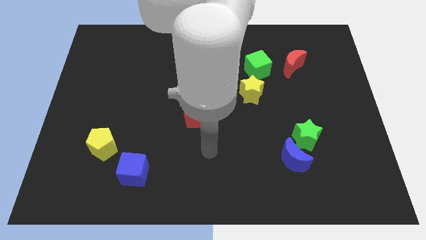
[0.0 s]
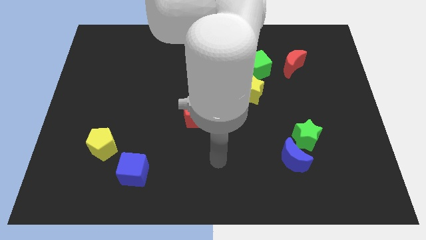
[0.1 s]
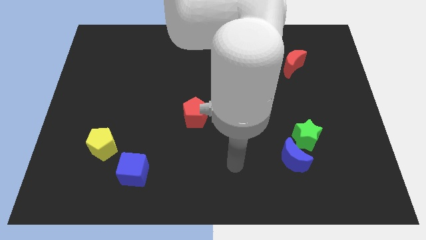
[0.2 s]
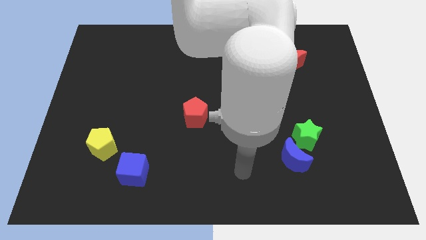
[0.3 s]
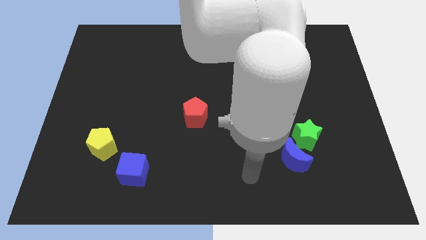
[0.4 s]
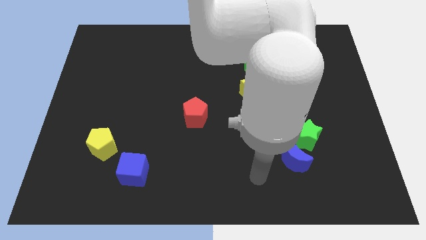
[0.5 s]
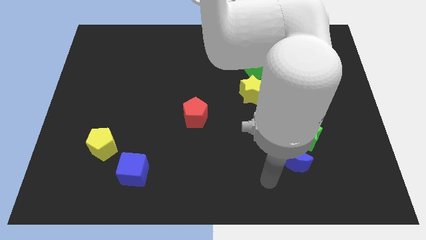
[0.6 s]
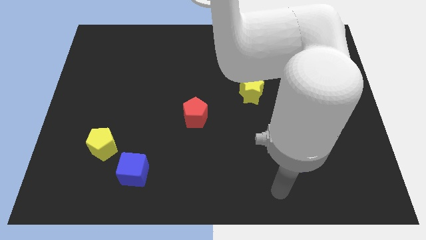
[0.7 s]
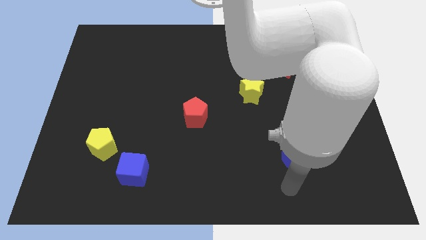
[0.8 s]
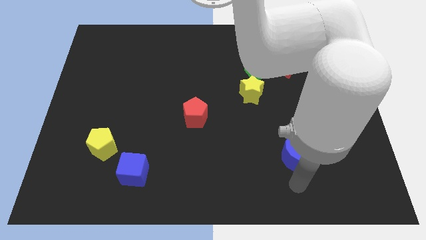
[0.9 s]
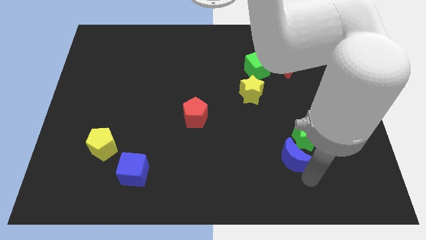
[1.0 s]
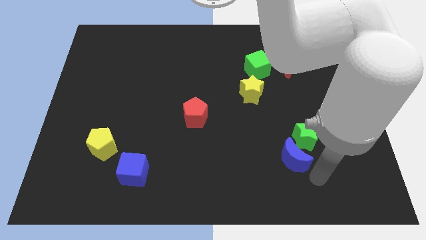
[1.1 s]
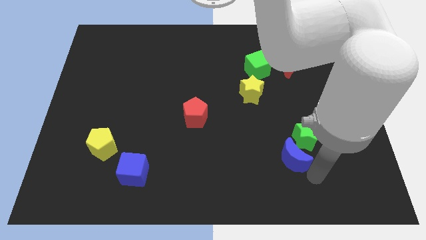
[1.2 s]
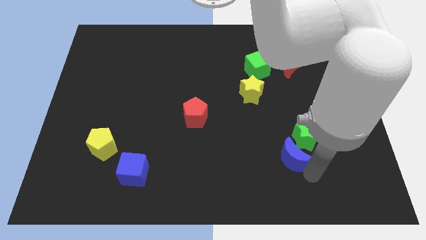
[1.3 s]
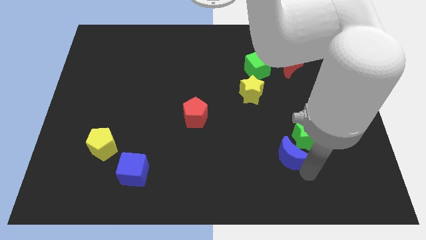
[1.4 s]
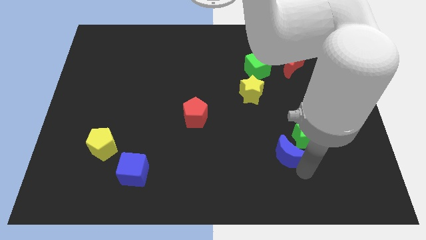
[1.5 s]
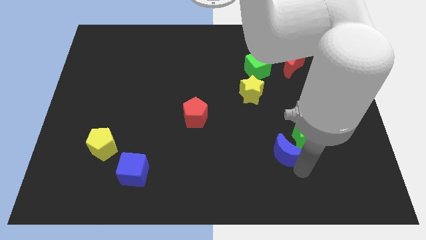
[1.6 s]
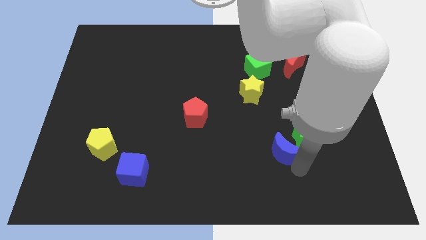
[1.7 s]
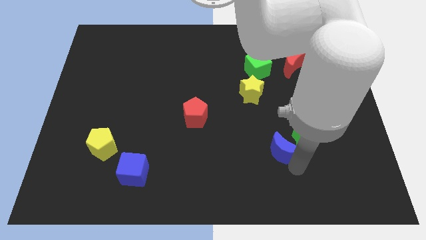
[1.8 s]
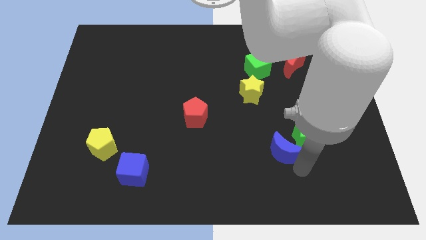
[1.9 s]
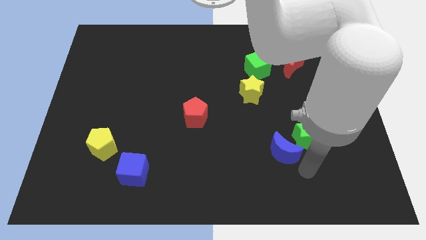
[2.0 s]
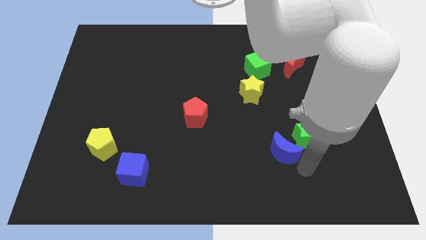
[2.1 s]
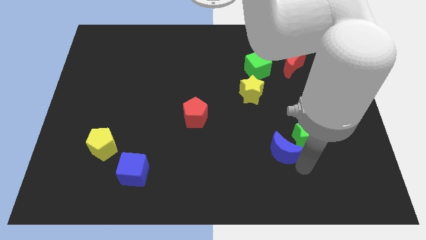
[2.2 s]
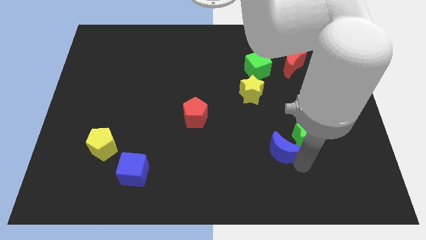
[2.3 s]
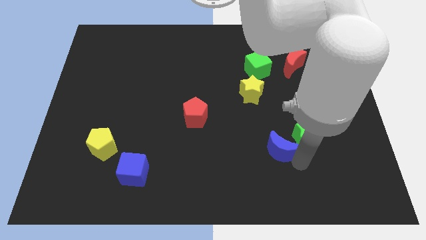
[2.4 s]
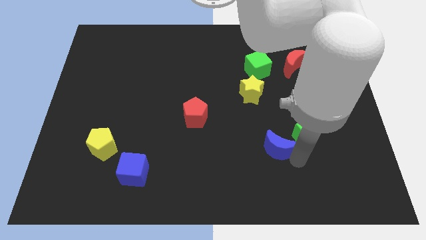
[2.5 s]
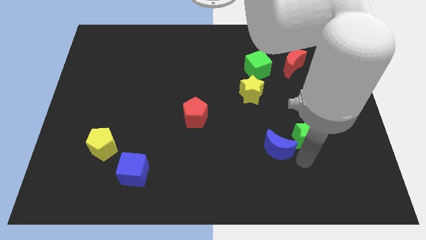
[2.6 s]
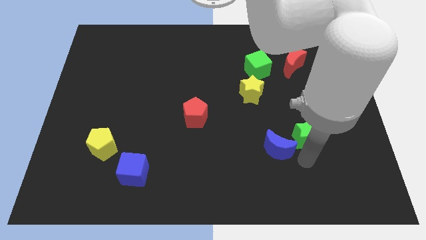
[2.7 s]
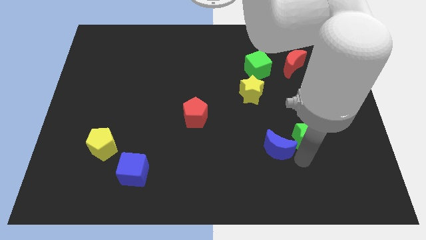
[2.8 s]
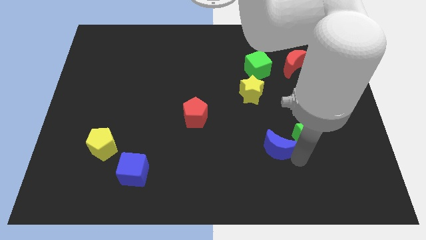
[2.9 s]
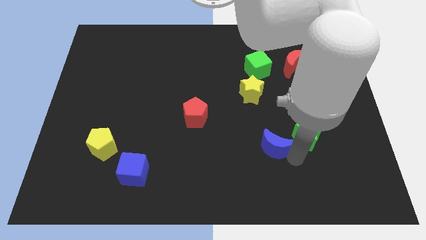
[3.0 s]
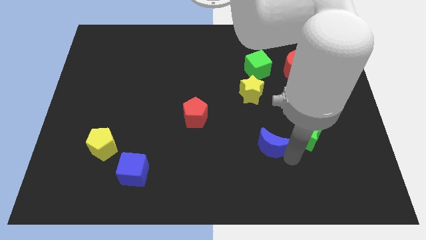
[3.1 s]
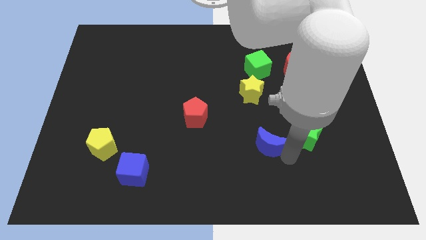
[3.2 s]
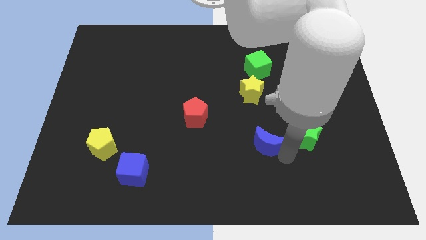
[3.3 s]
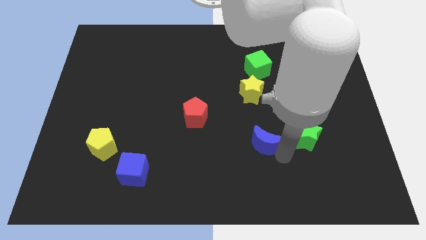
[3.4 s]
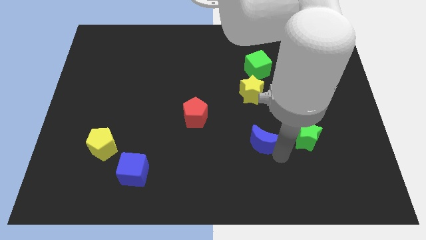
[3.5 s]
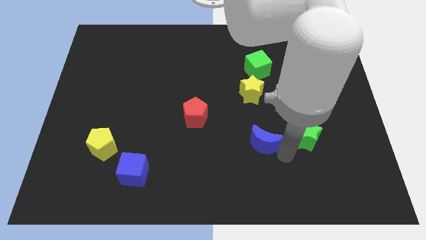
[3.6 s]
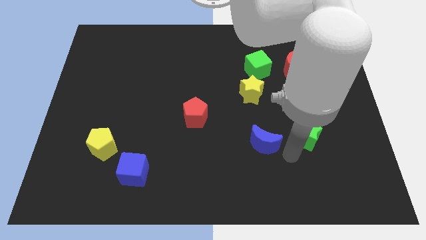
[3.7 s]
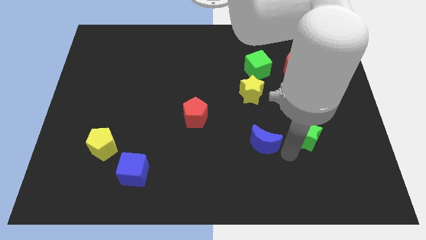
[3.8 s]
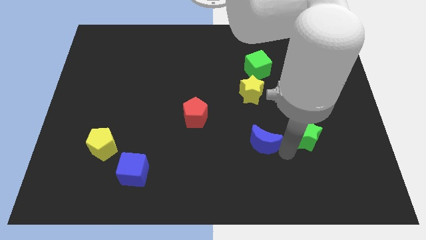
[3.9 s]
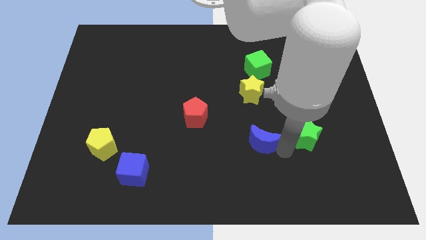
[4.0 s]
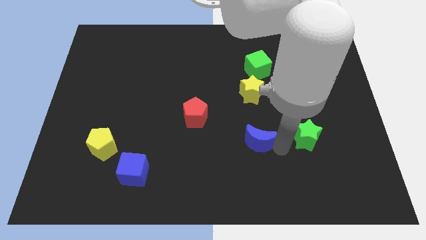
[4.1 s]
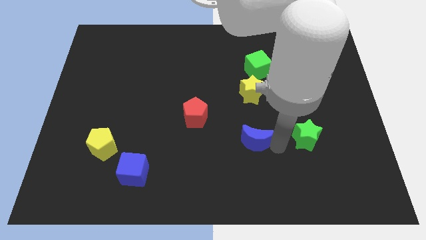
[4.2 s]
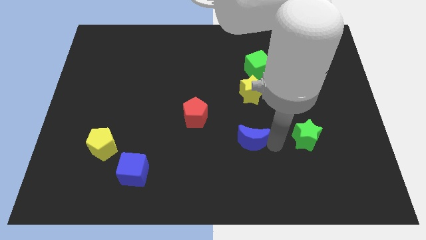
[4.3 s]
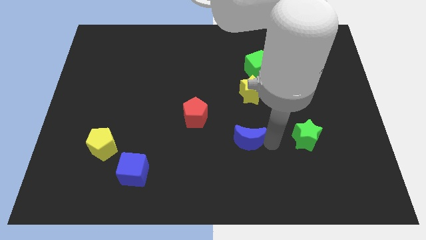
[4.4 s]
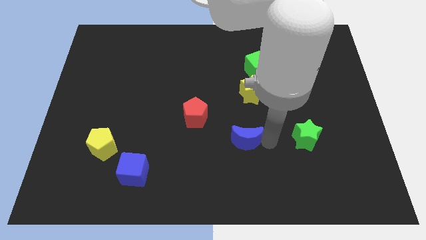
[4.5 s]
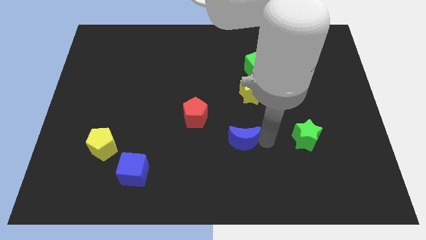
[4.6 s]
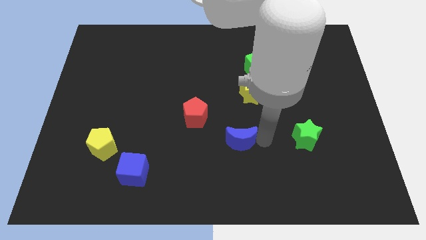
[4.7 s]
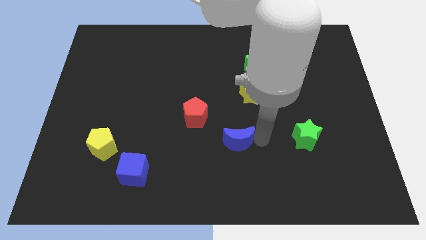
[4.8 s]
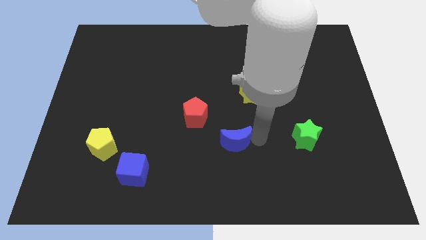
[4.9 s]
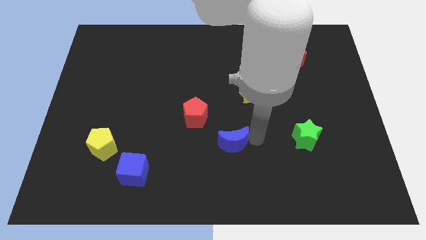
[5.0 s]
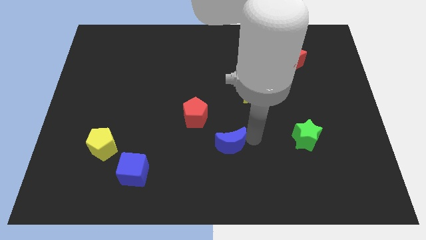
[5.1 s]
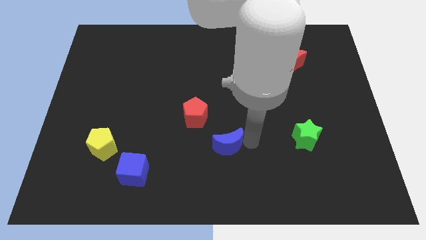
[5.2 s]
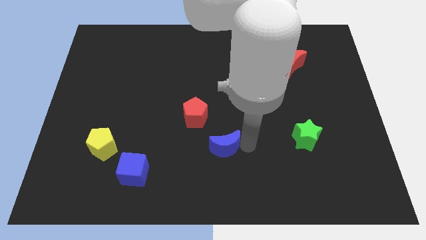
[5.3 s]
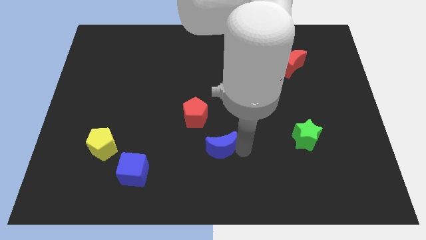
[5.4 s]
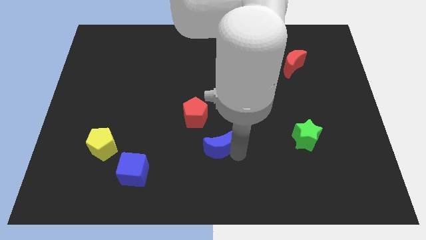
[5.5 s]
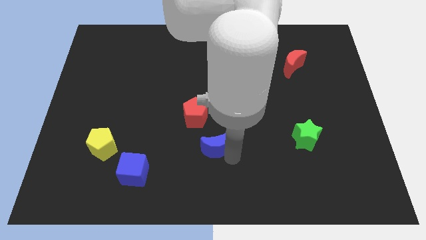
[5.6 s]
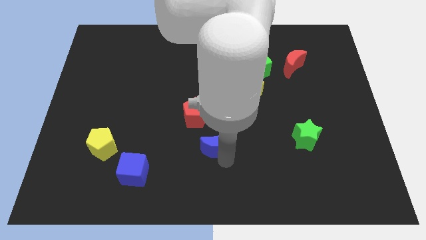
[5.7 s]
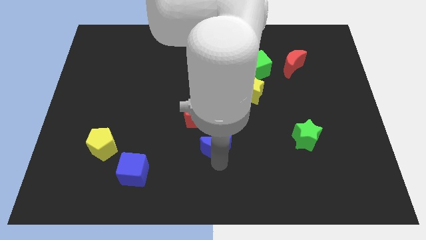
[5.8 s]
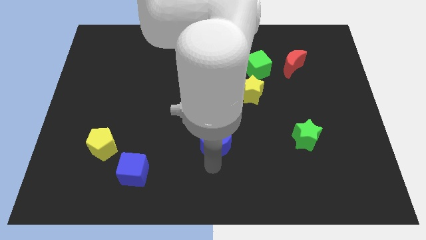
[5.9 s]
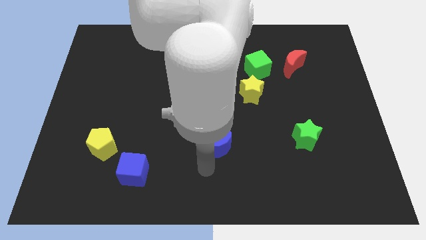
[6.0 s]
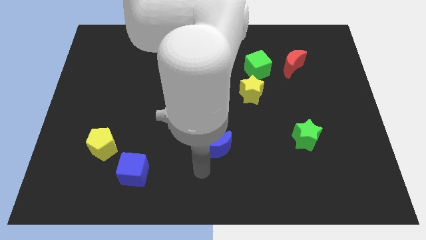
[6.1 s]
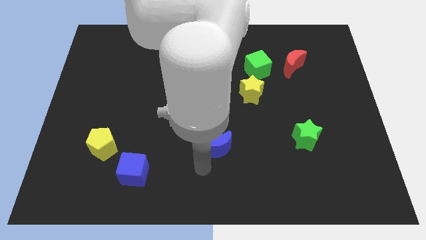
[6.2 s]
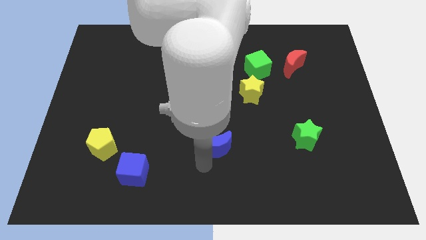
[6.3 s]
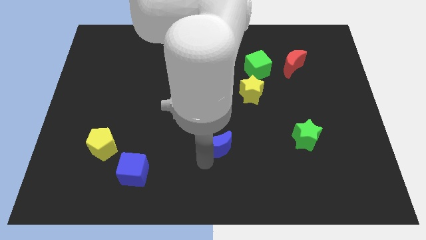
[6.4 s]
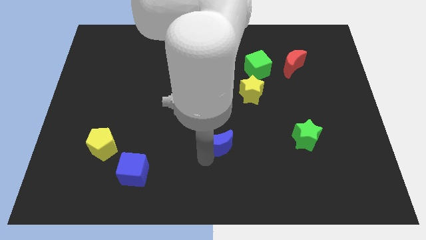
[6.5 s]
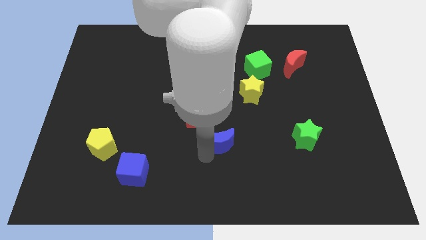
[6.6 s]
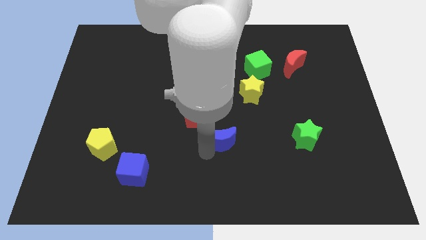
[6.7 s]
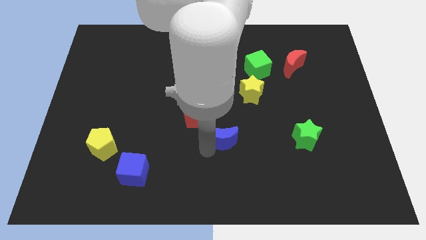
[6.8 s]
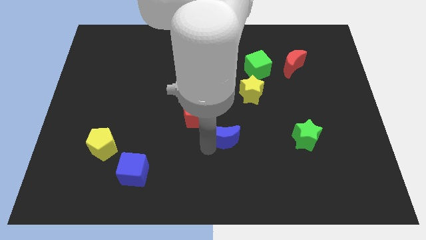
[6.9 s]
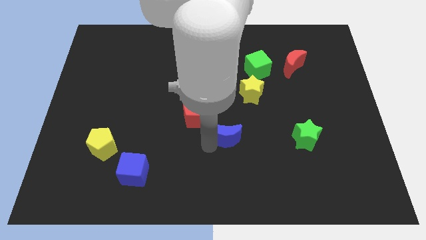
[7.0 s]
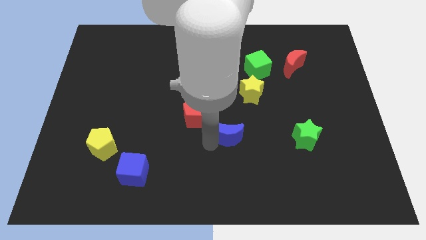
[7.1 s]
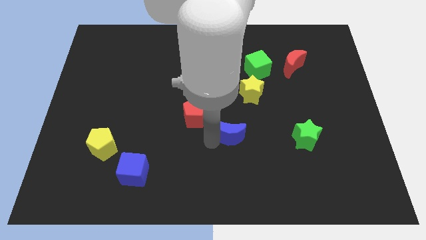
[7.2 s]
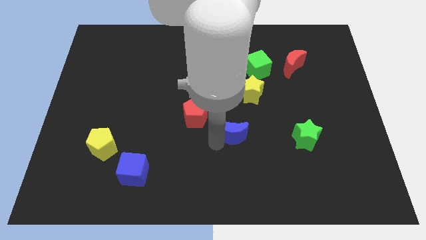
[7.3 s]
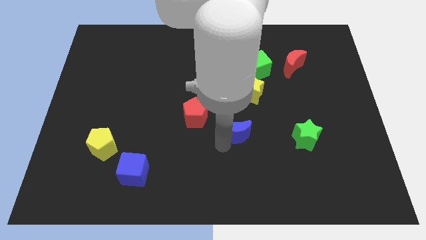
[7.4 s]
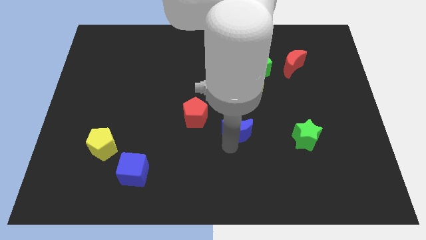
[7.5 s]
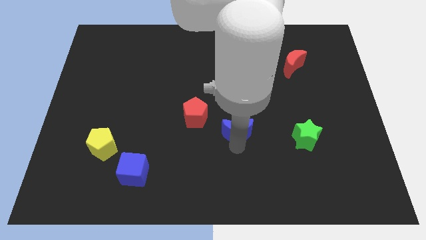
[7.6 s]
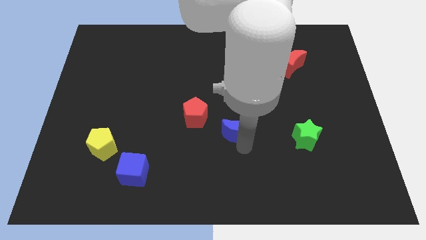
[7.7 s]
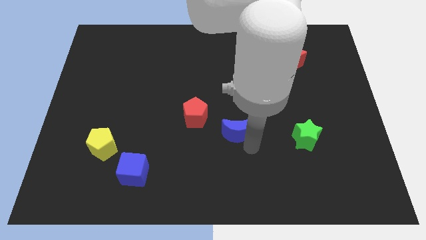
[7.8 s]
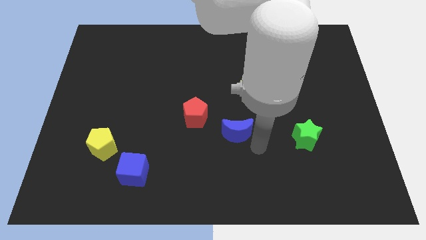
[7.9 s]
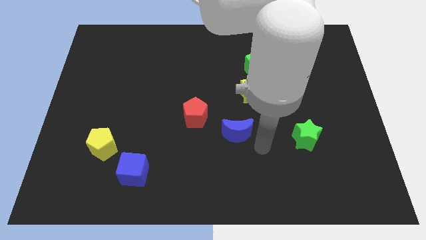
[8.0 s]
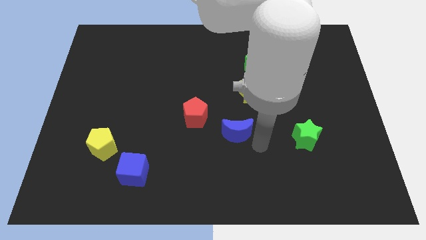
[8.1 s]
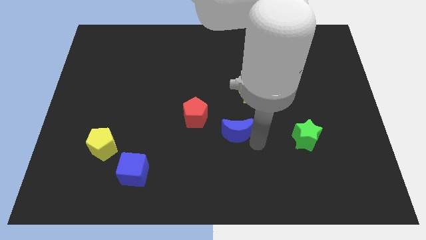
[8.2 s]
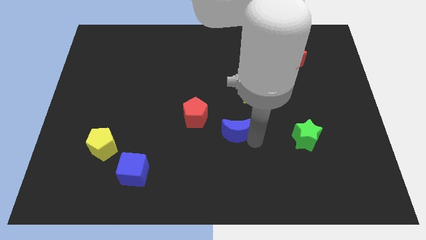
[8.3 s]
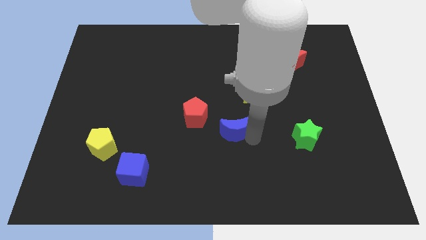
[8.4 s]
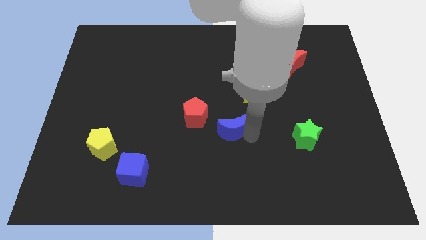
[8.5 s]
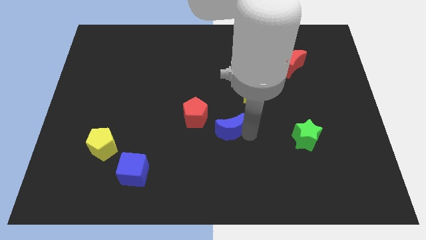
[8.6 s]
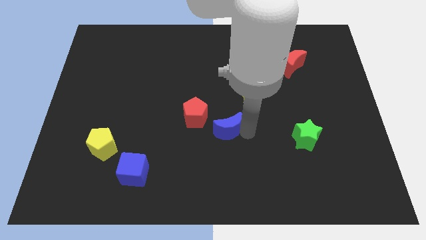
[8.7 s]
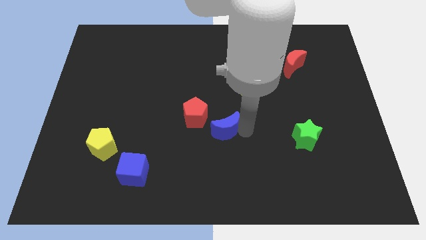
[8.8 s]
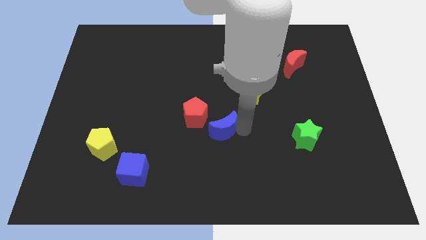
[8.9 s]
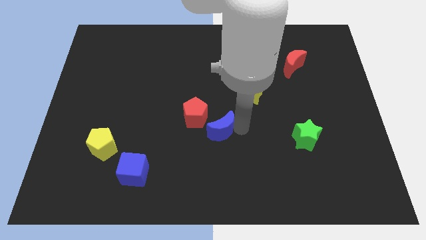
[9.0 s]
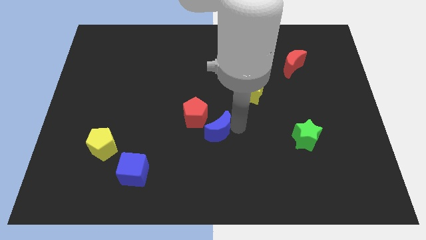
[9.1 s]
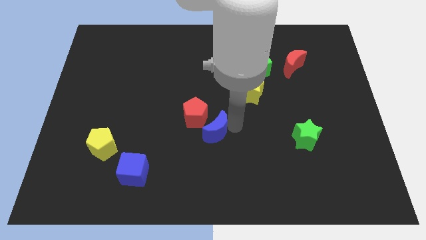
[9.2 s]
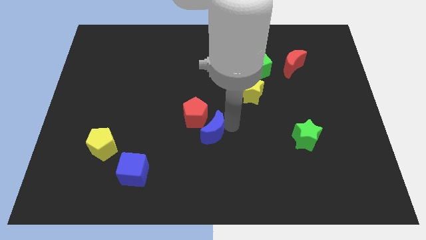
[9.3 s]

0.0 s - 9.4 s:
move the blue moon to the red pentagon
